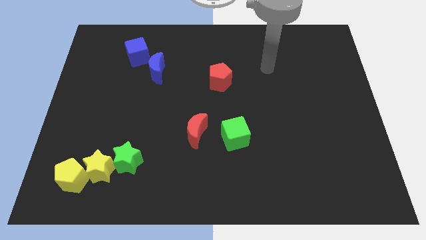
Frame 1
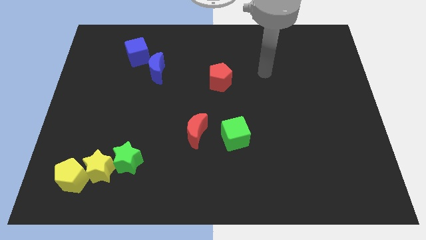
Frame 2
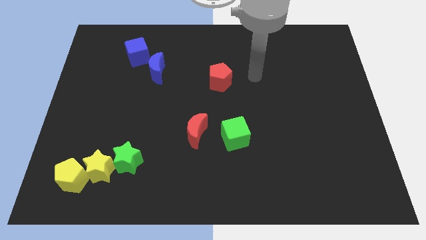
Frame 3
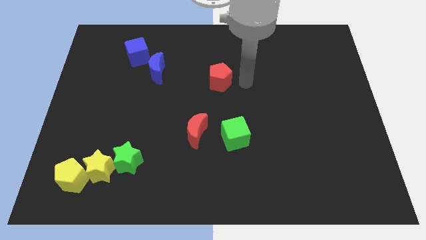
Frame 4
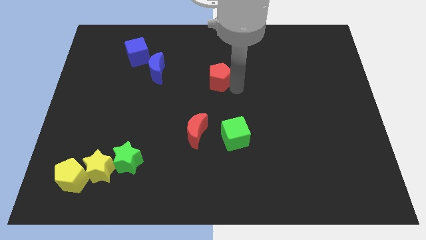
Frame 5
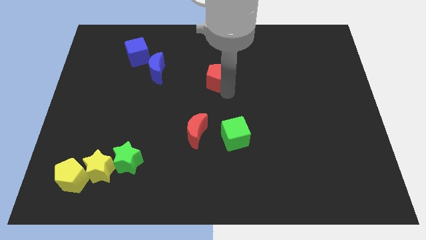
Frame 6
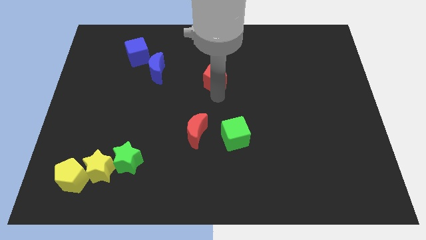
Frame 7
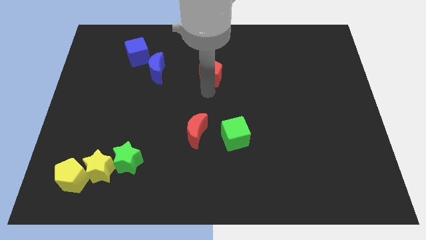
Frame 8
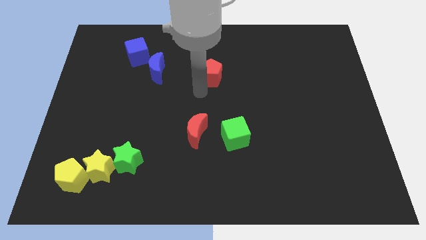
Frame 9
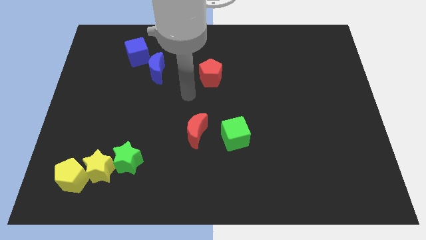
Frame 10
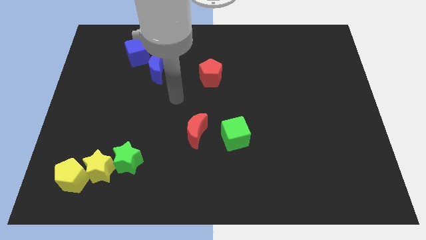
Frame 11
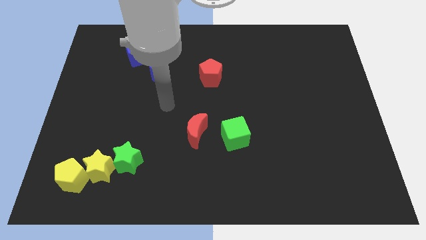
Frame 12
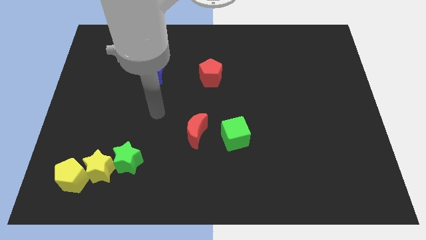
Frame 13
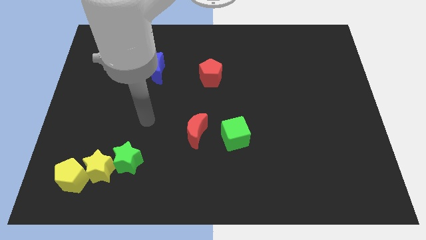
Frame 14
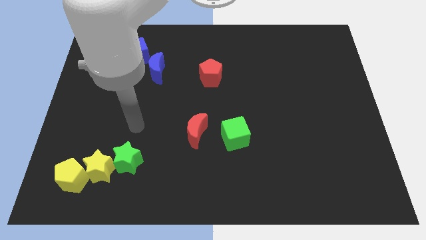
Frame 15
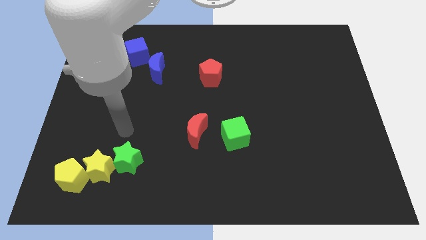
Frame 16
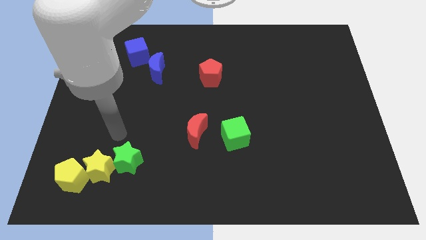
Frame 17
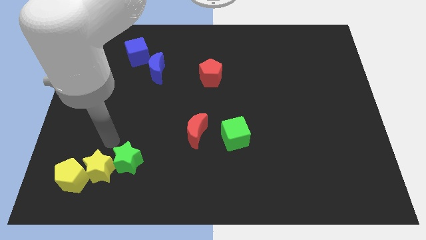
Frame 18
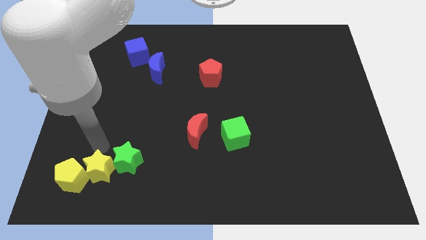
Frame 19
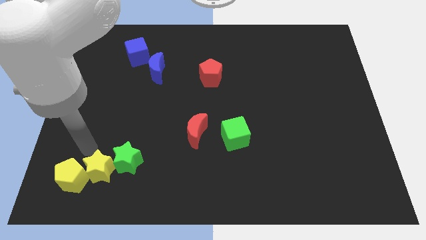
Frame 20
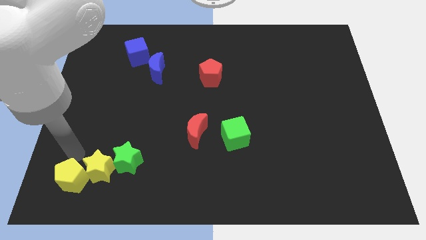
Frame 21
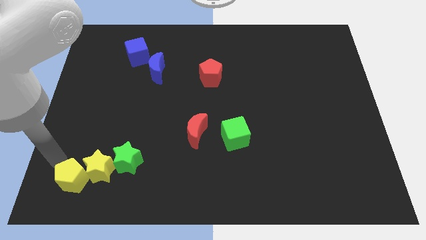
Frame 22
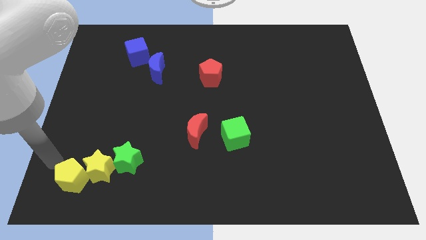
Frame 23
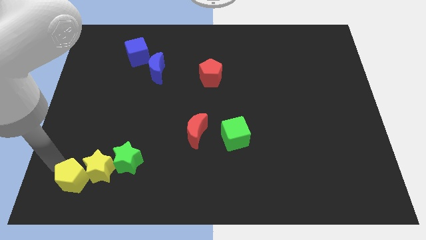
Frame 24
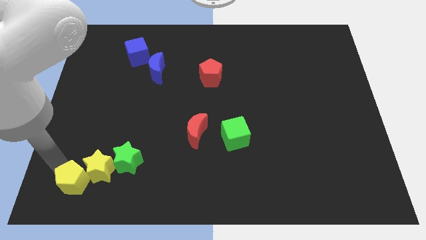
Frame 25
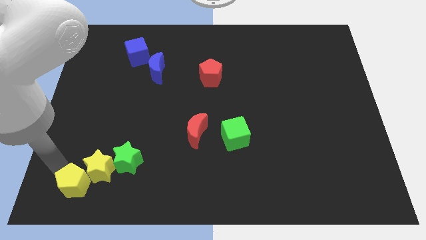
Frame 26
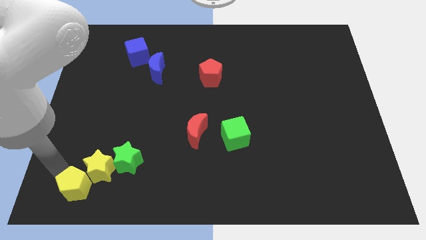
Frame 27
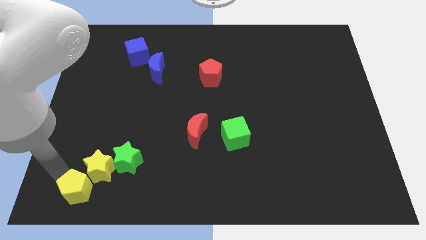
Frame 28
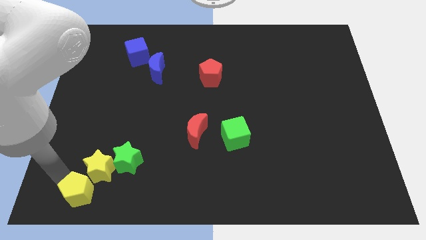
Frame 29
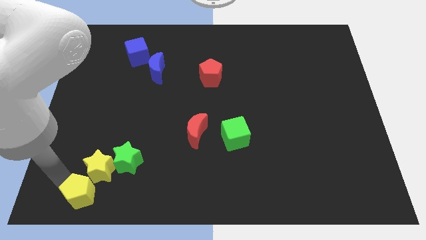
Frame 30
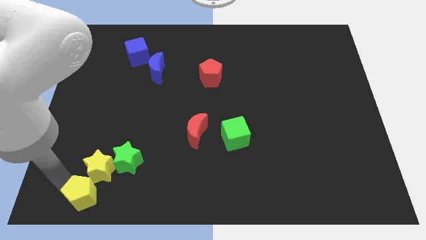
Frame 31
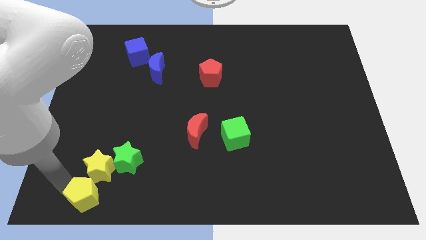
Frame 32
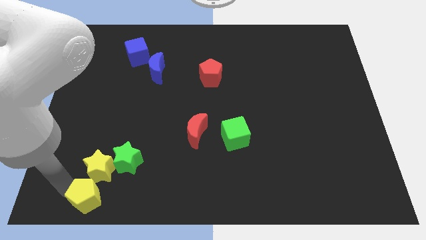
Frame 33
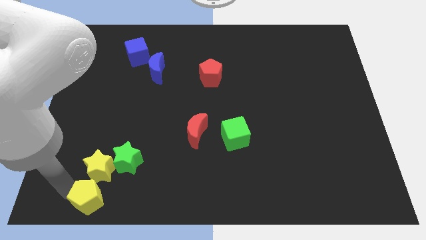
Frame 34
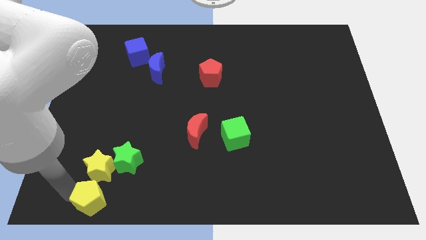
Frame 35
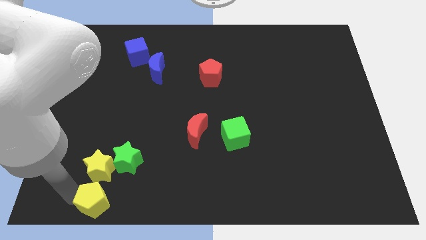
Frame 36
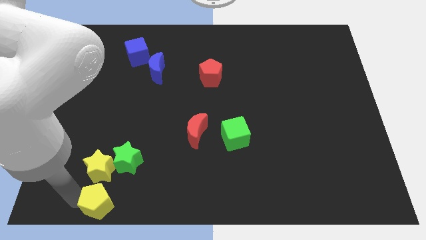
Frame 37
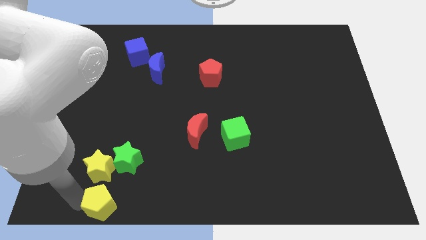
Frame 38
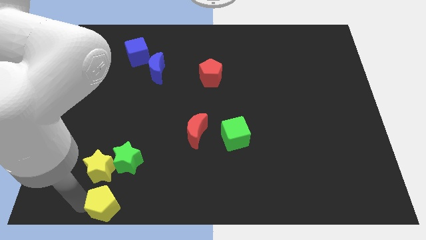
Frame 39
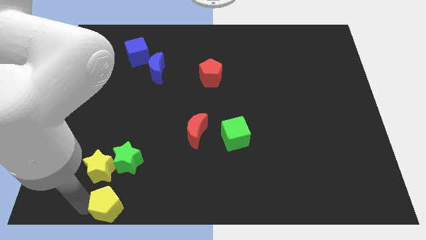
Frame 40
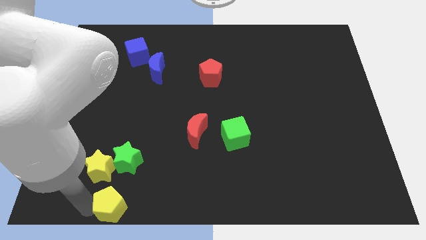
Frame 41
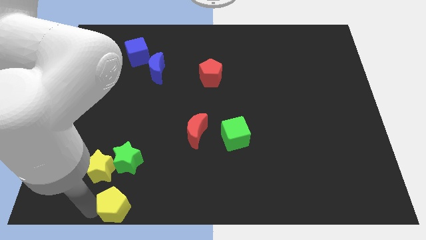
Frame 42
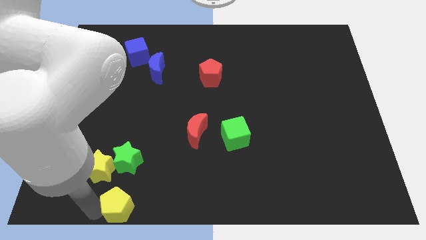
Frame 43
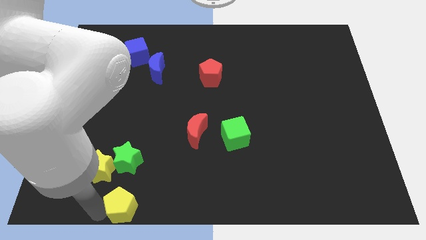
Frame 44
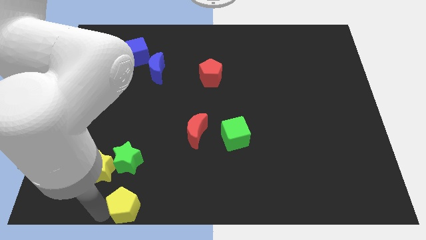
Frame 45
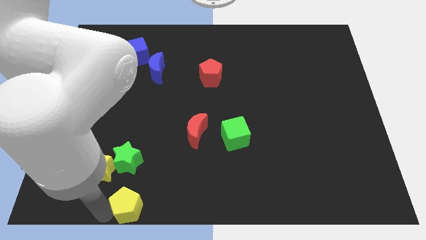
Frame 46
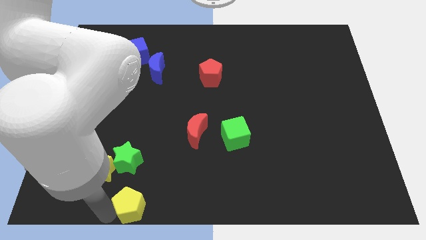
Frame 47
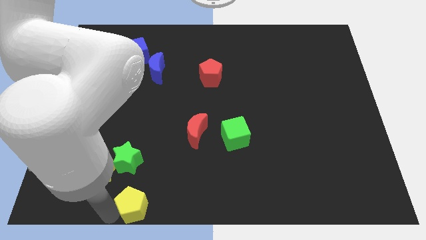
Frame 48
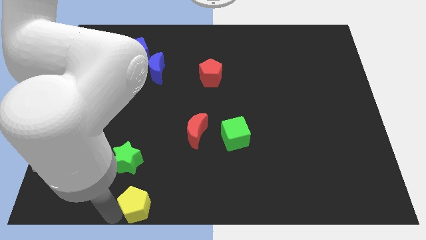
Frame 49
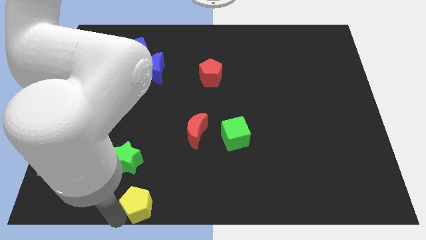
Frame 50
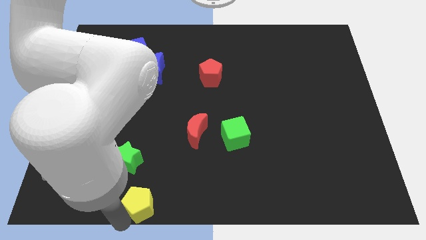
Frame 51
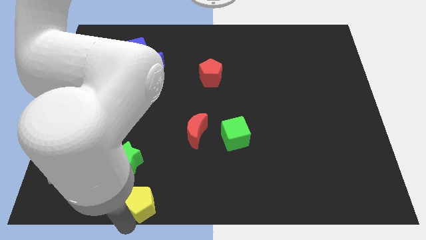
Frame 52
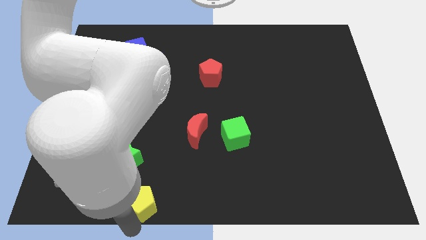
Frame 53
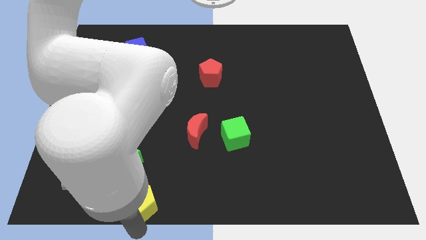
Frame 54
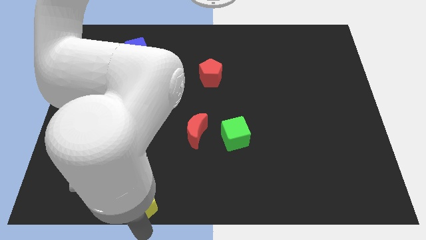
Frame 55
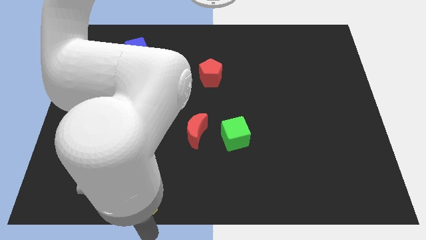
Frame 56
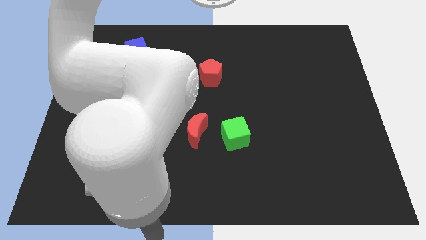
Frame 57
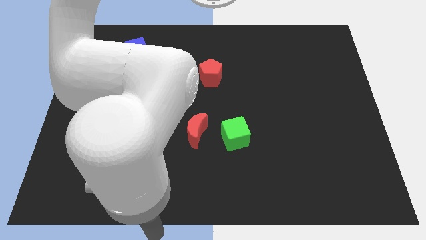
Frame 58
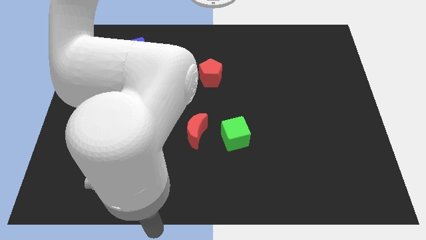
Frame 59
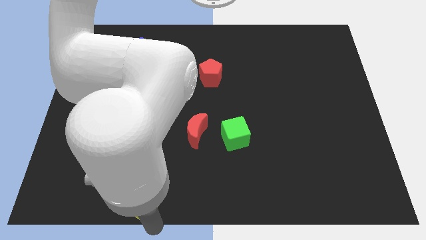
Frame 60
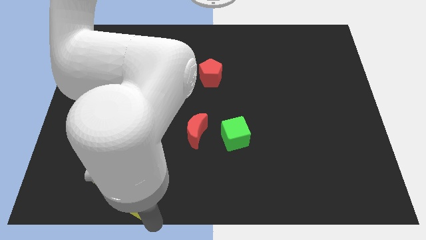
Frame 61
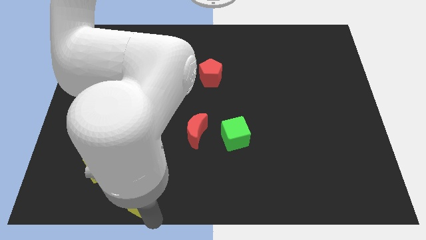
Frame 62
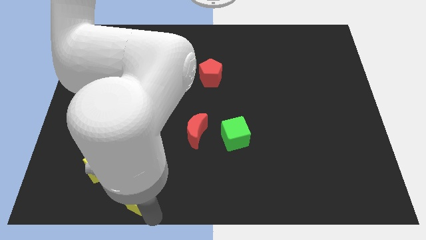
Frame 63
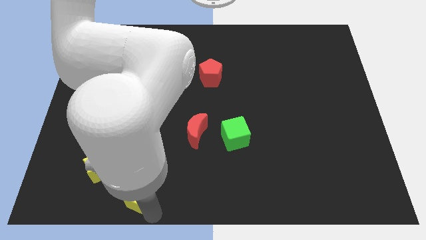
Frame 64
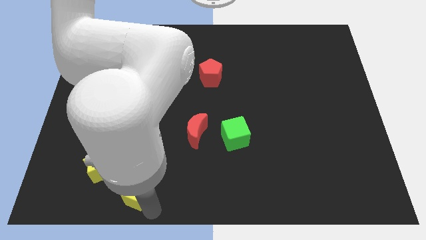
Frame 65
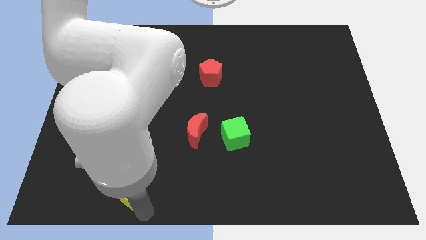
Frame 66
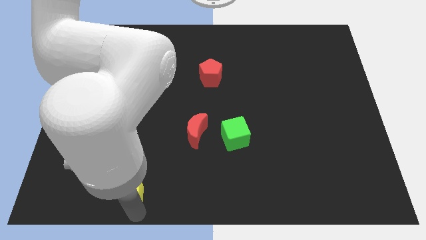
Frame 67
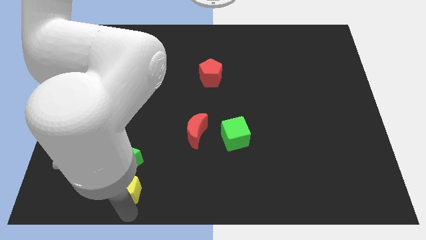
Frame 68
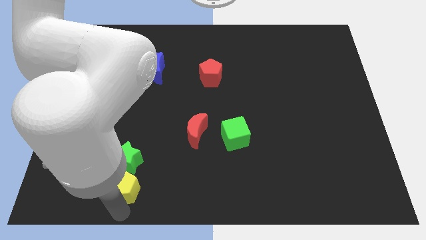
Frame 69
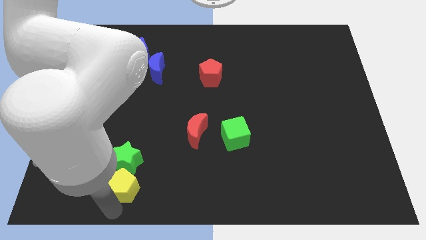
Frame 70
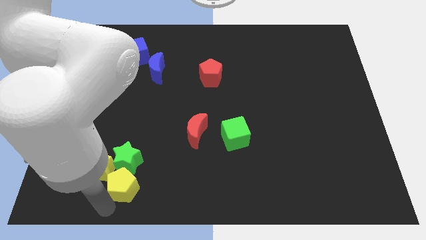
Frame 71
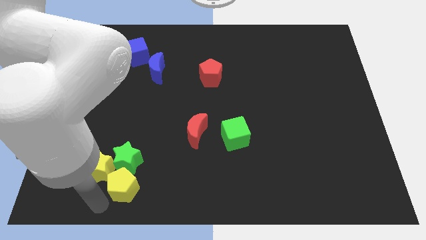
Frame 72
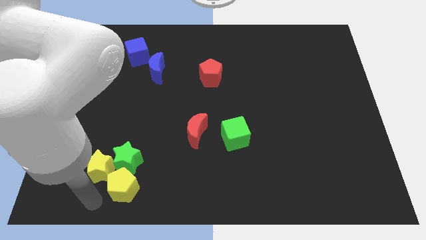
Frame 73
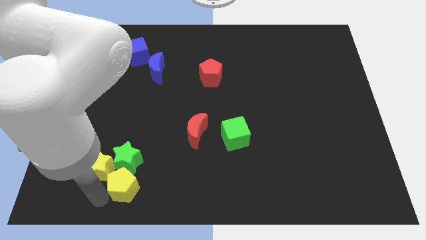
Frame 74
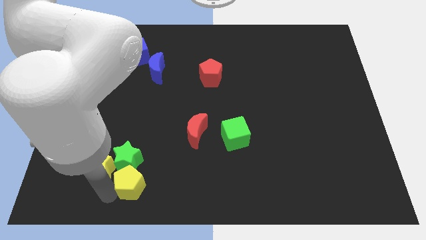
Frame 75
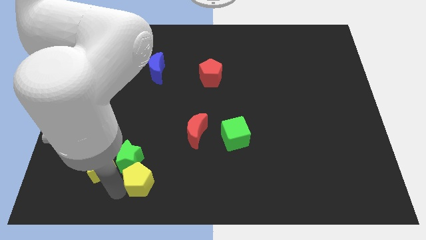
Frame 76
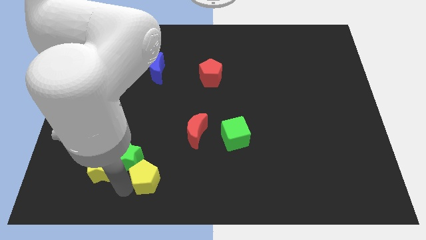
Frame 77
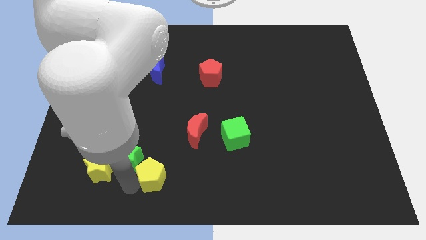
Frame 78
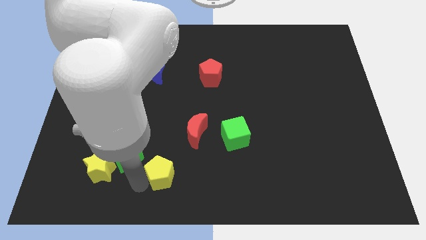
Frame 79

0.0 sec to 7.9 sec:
put the yellow pentagon to the bottom left of the red moon
